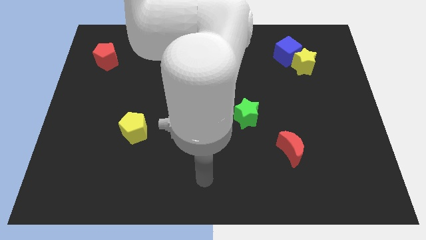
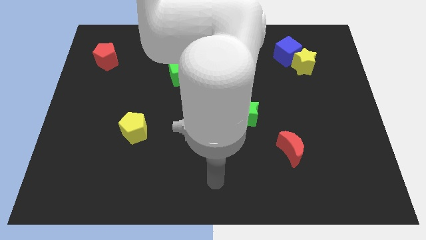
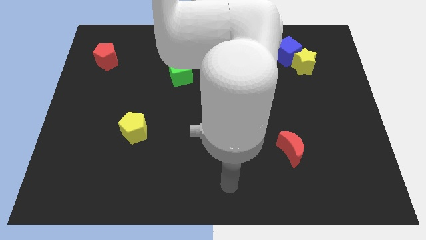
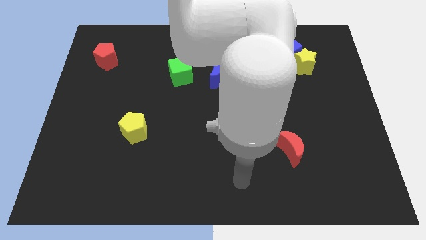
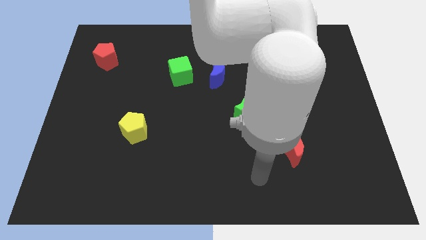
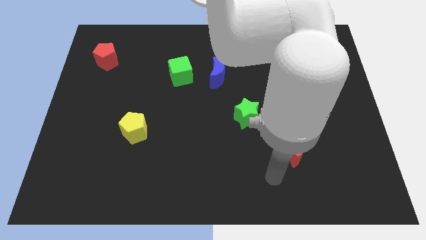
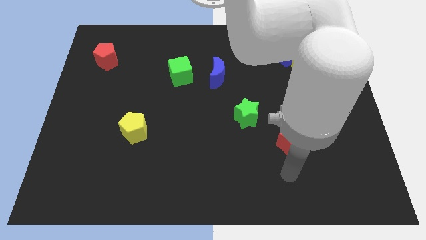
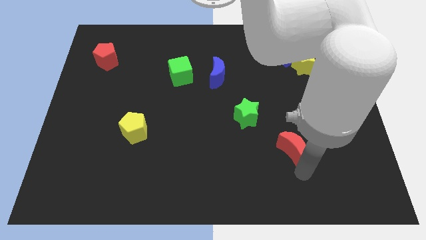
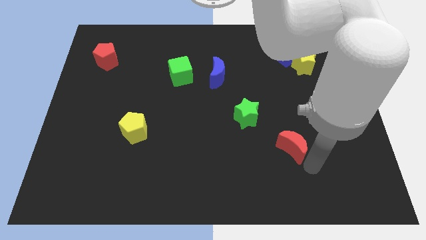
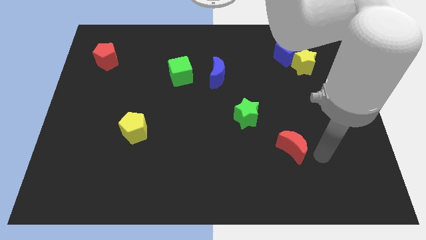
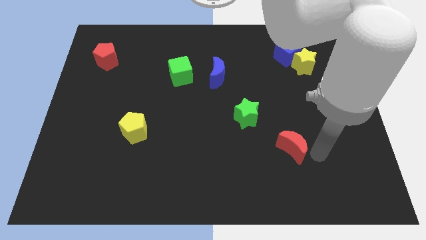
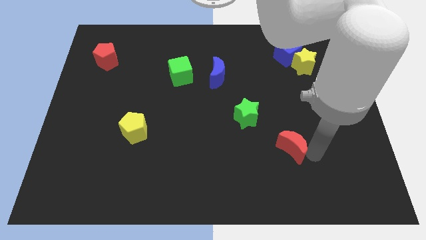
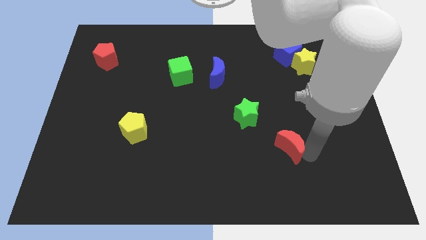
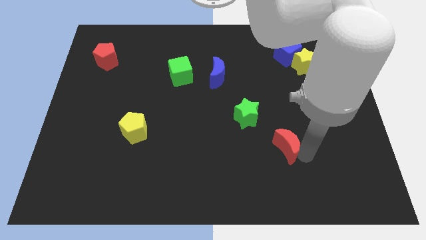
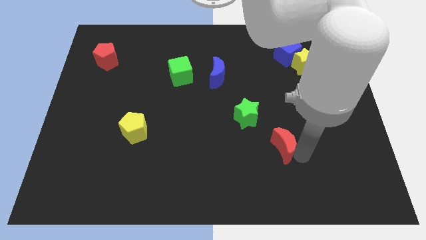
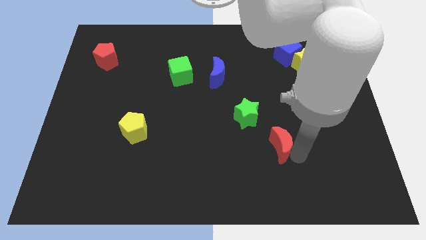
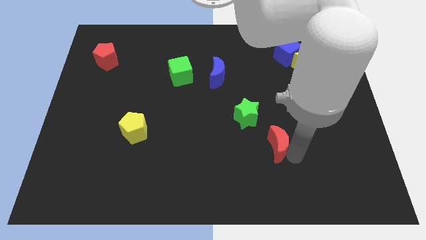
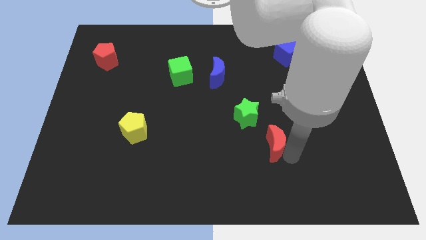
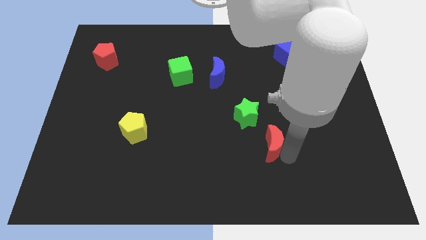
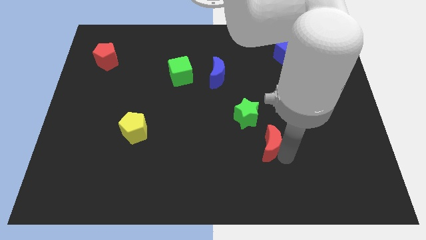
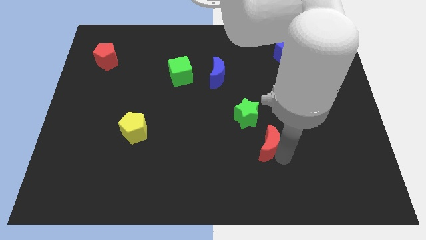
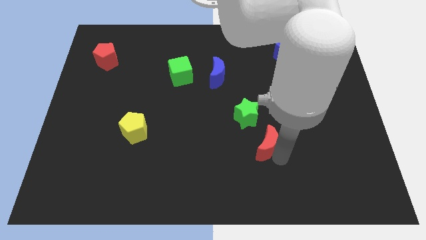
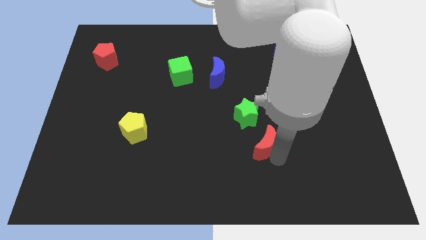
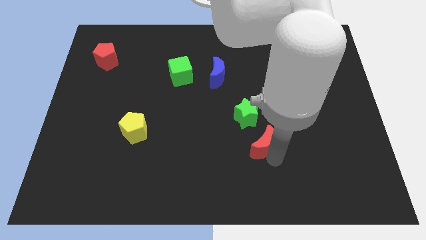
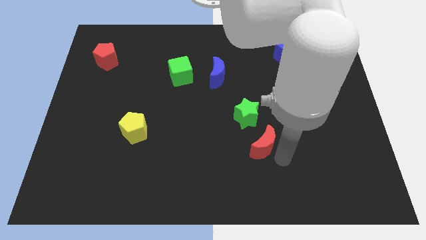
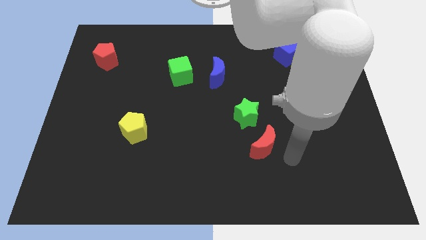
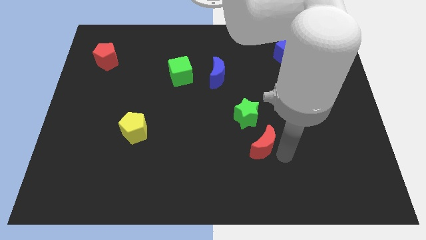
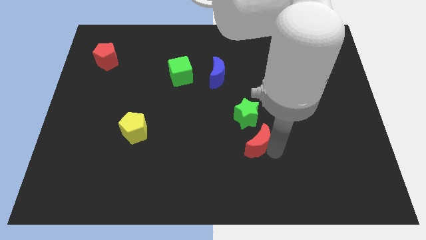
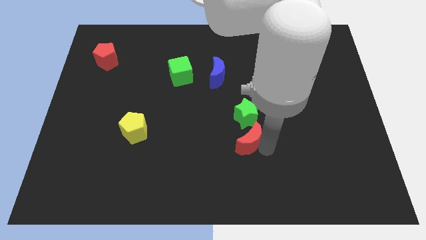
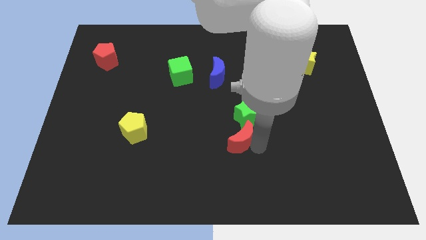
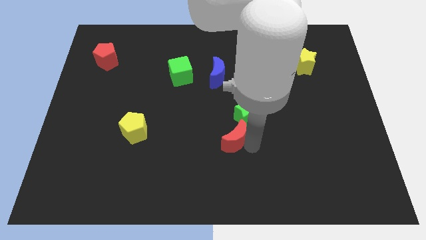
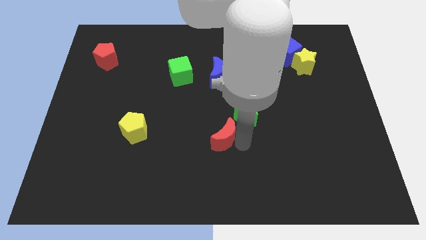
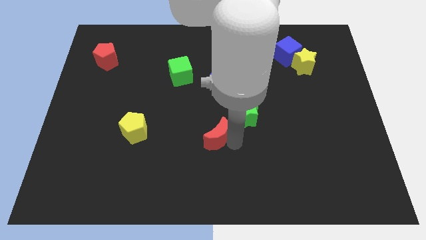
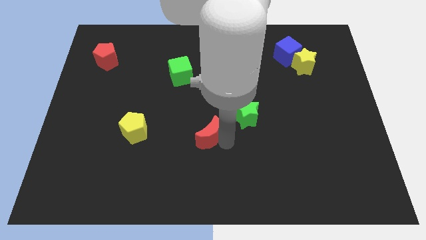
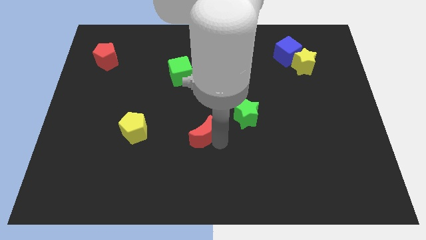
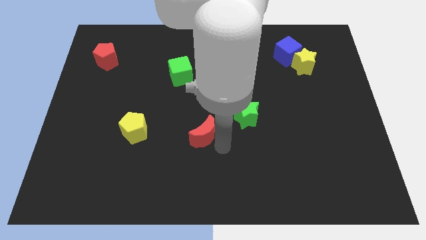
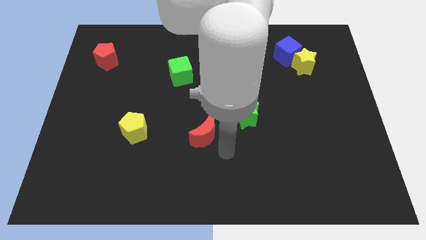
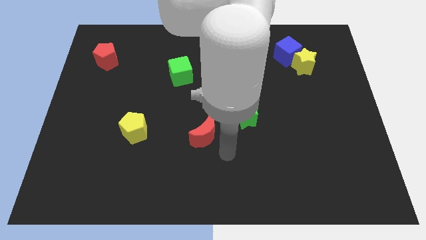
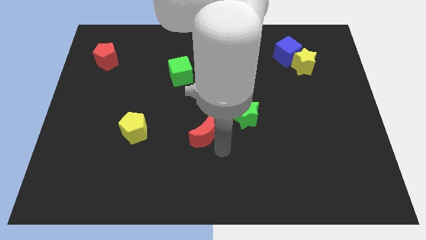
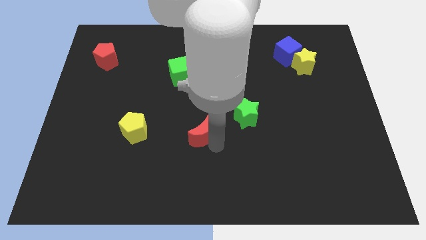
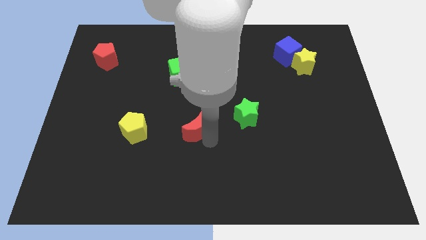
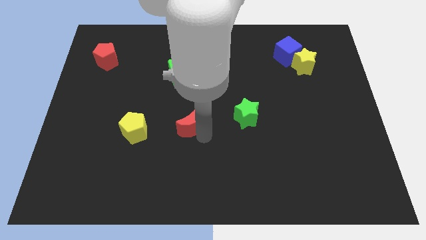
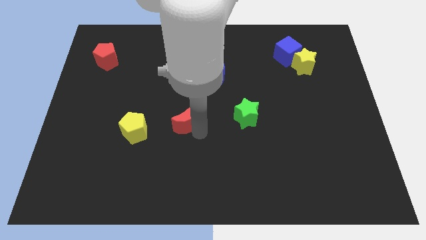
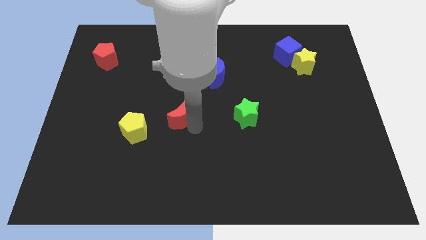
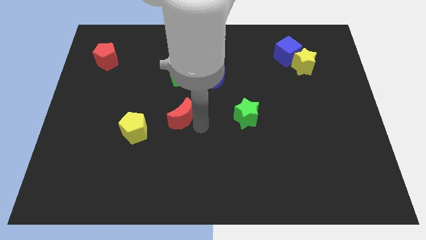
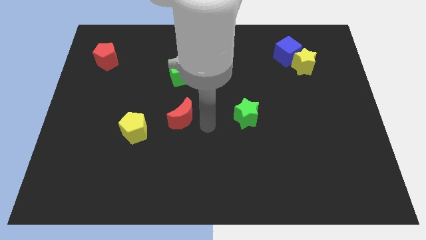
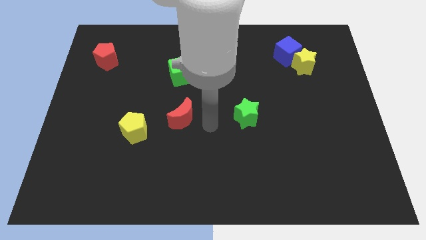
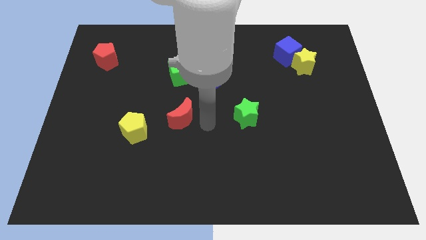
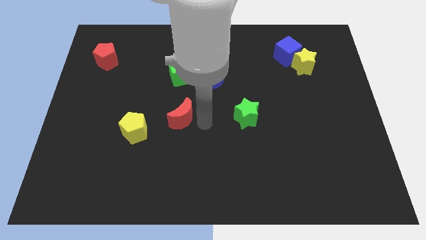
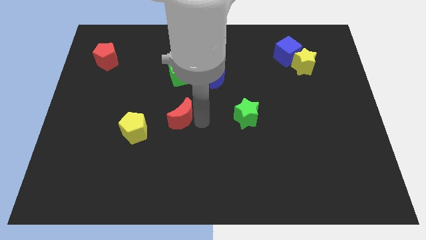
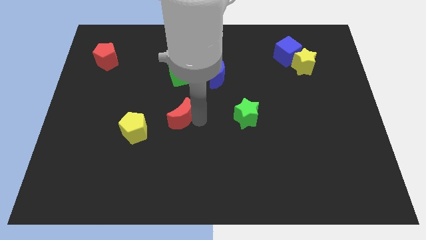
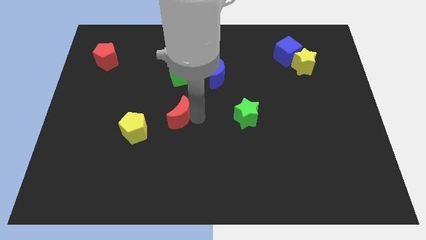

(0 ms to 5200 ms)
push the red moon to the top right side of the yellow pentagon

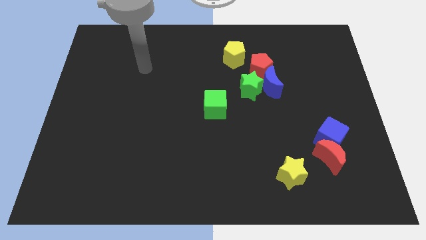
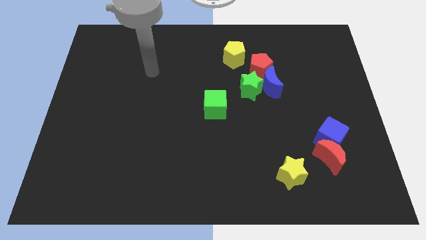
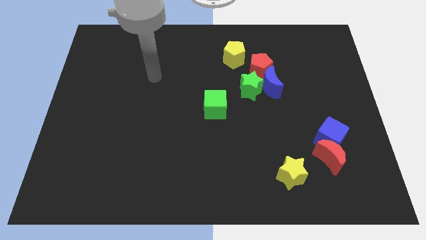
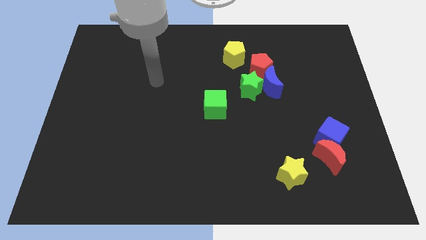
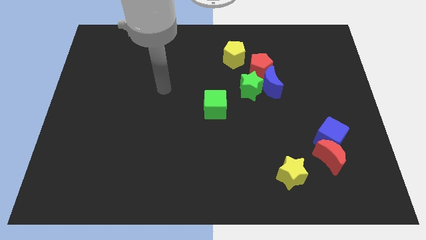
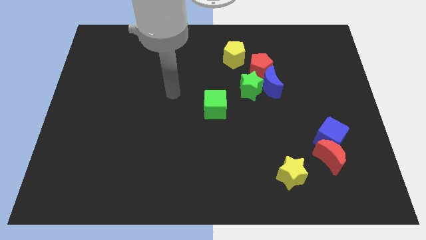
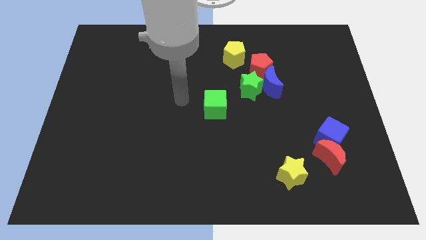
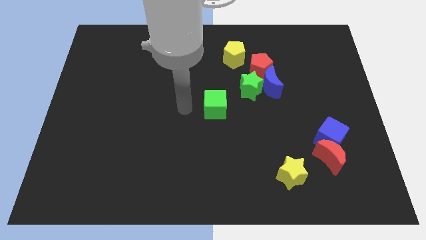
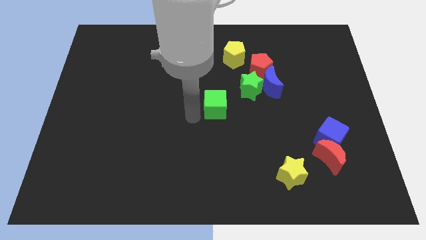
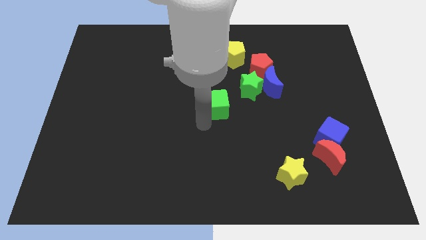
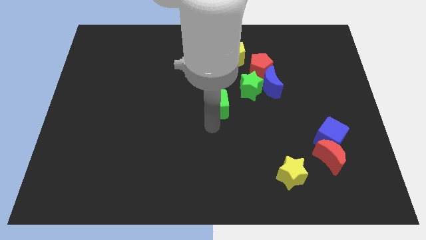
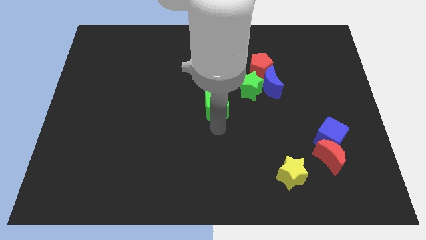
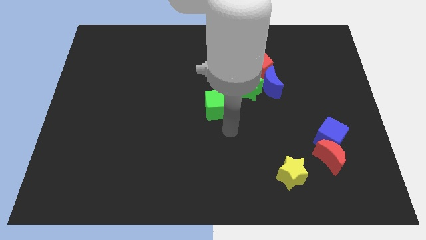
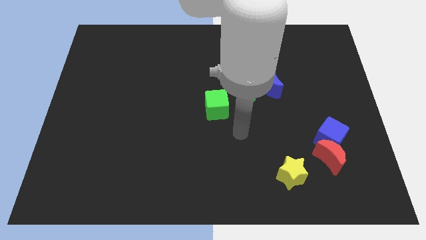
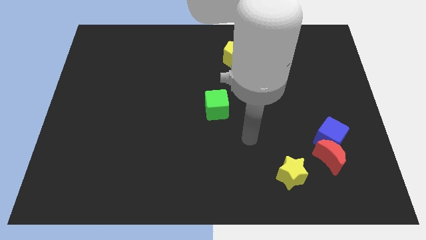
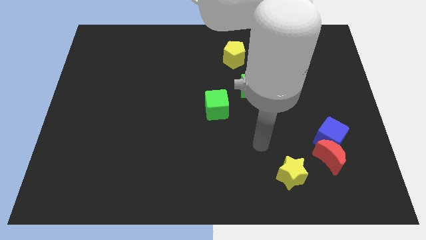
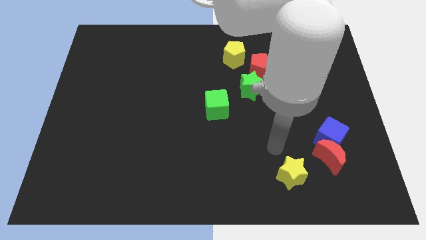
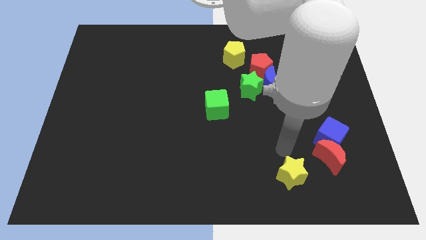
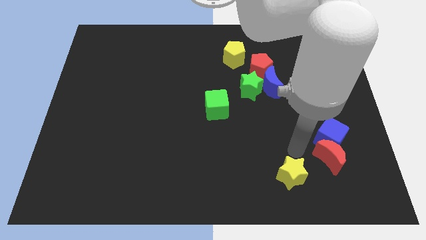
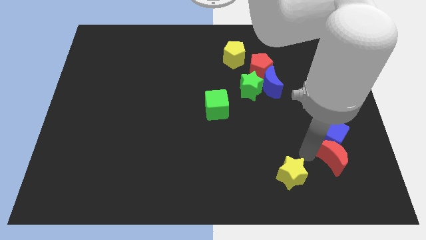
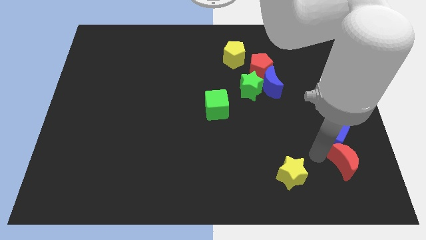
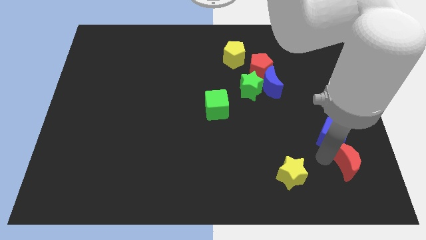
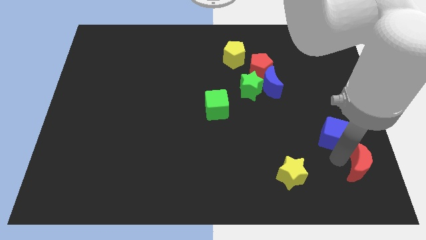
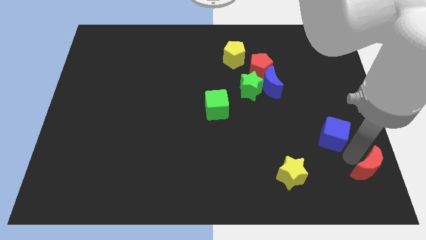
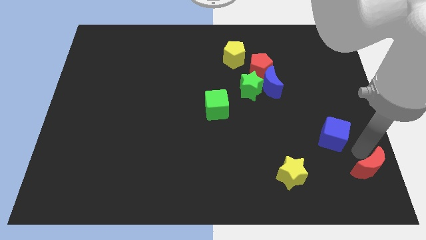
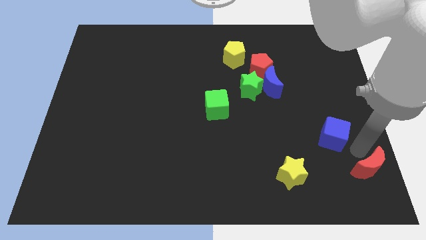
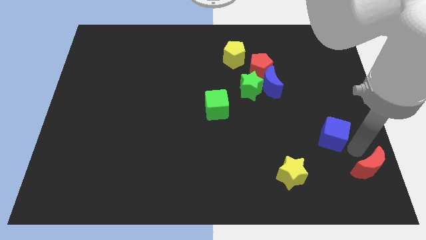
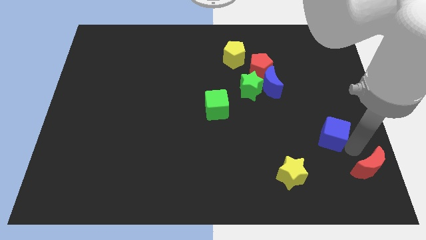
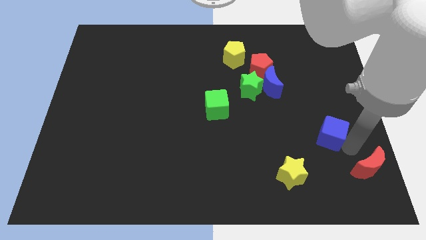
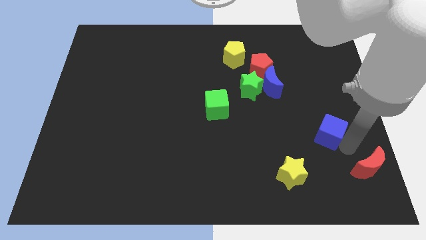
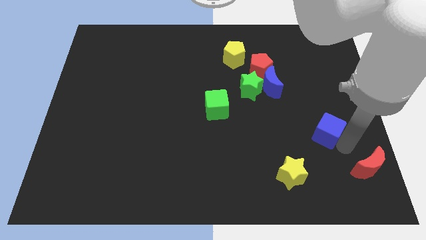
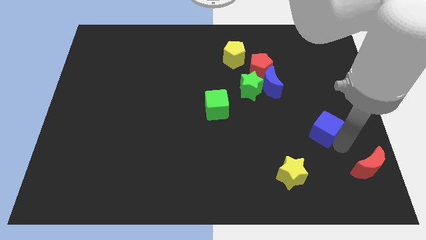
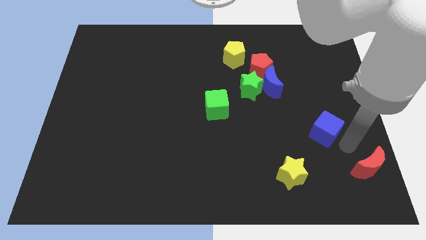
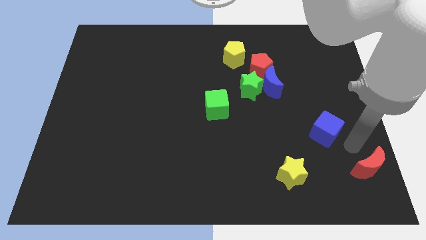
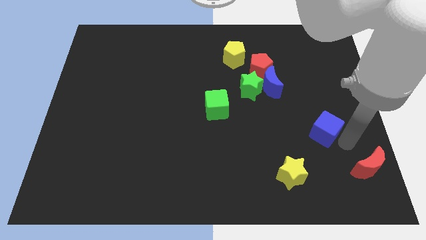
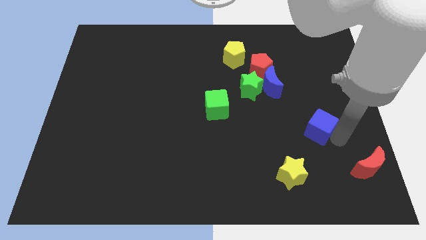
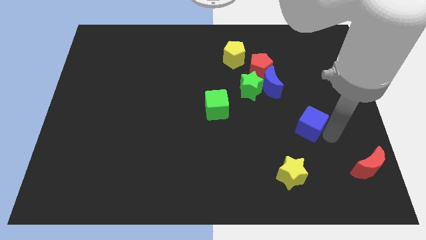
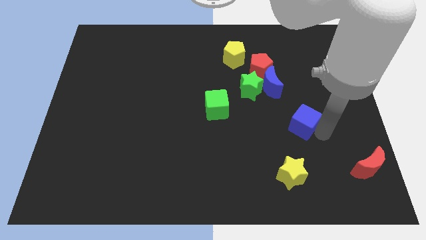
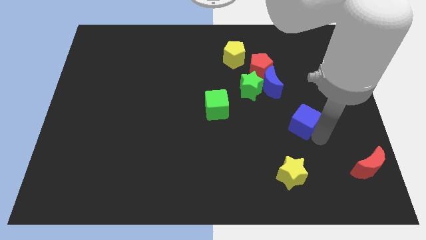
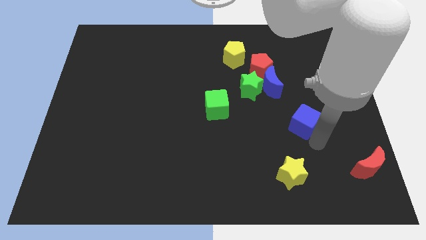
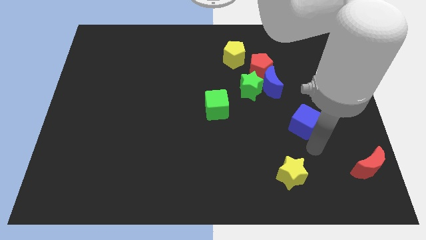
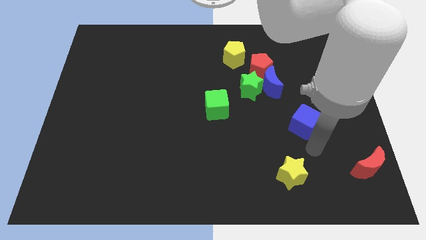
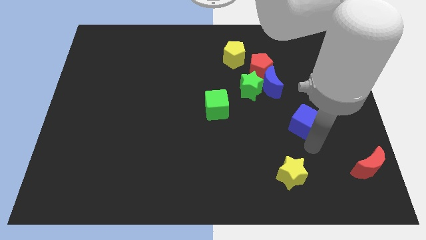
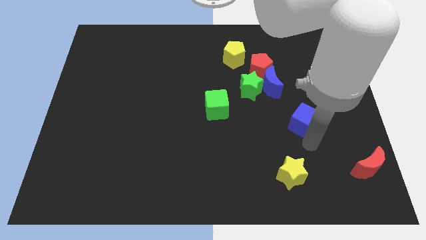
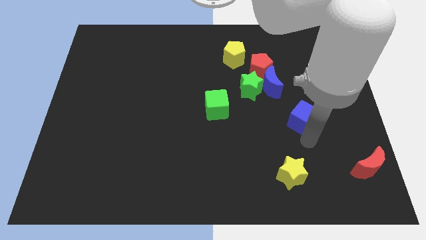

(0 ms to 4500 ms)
push the blue cube to the bottom right side of the blue moon
